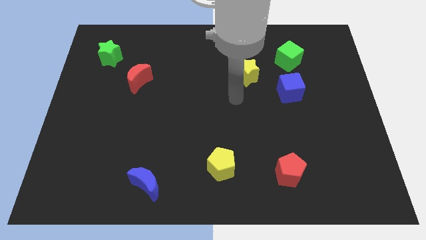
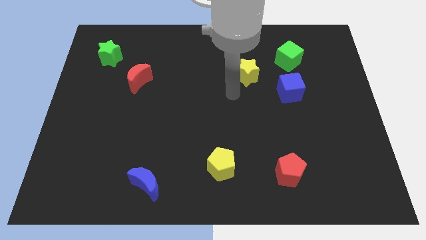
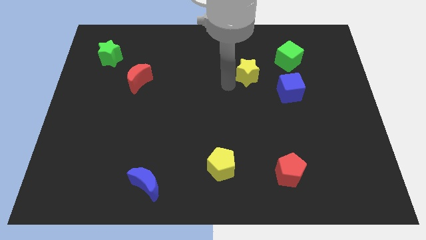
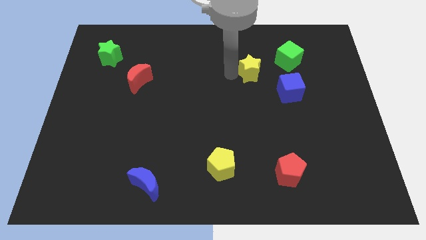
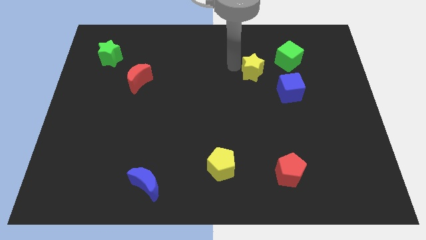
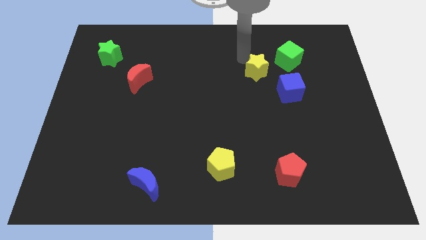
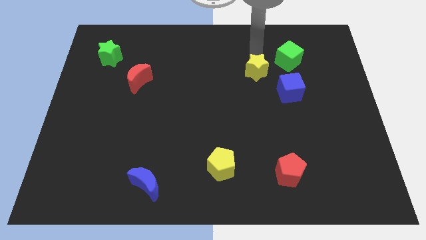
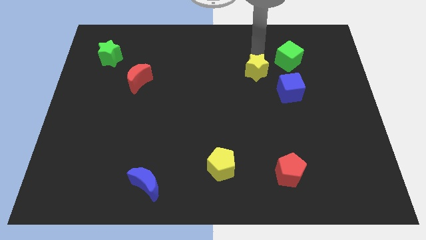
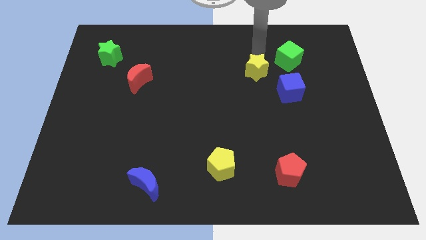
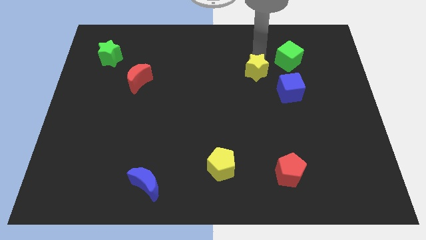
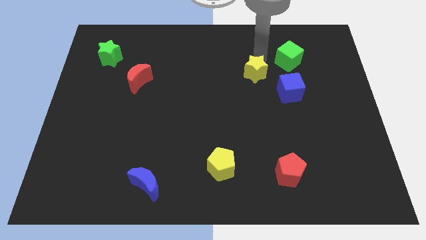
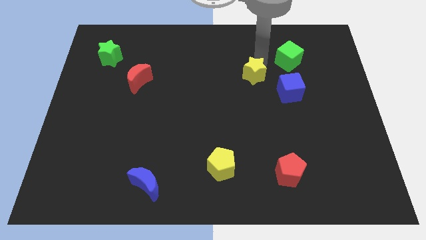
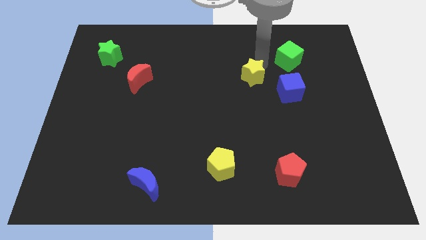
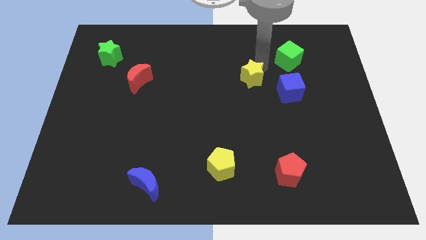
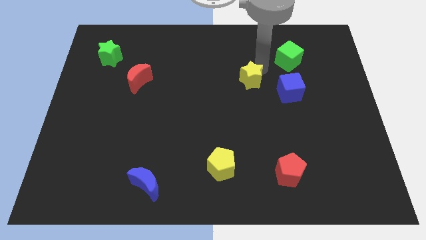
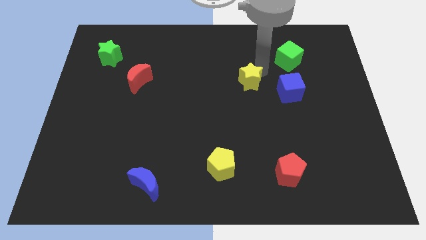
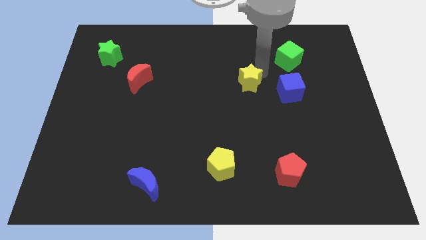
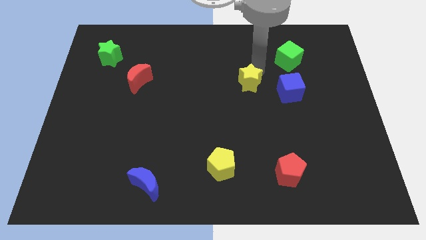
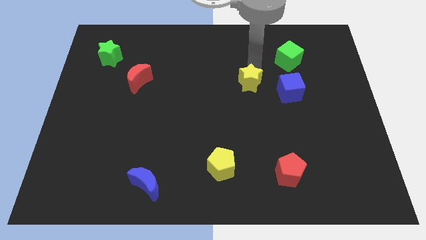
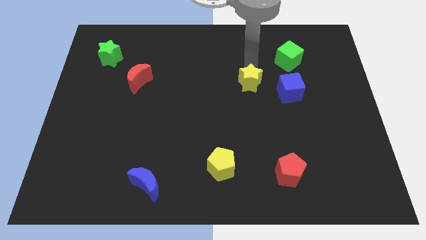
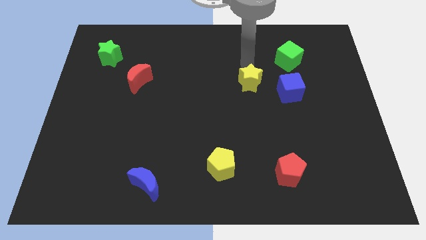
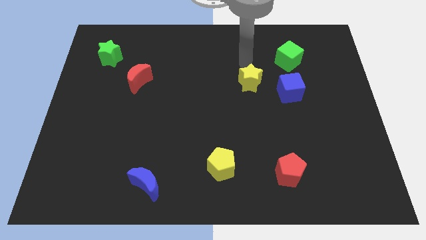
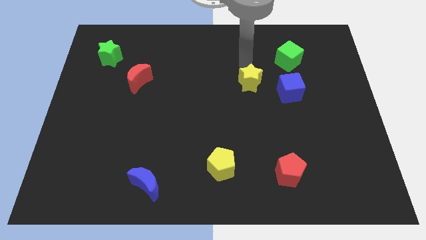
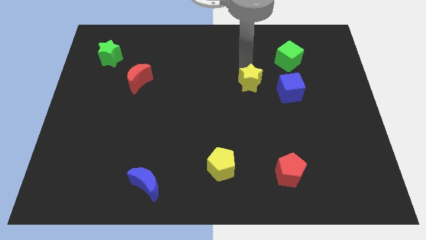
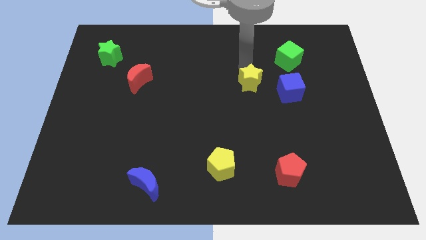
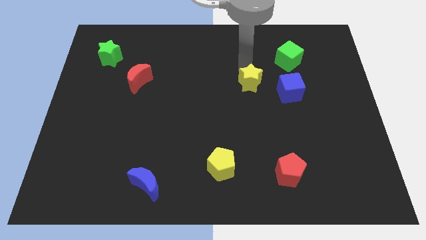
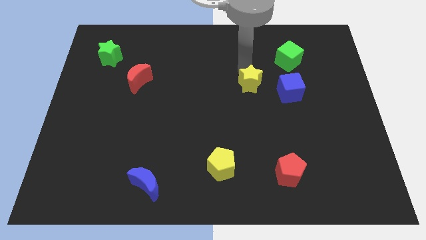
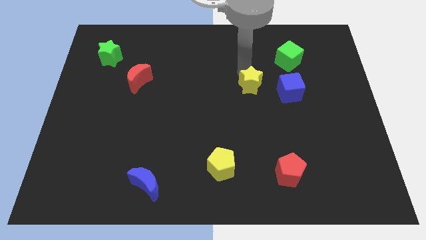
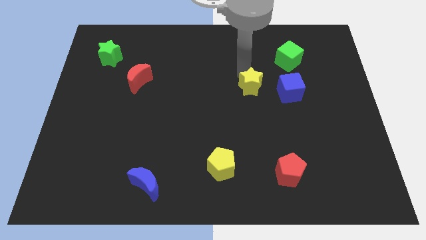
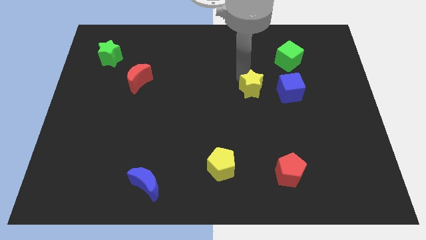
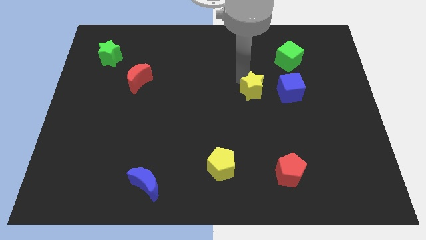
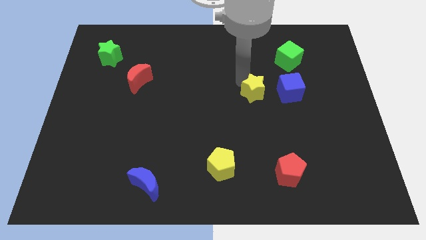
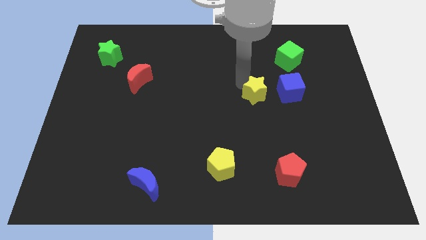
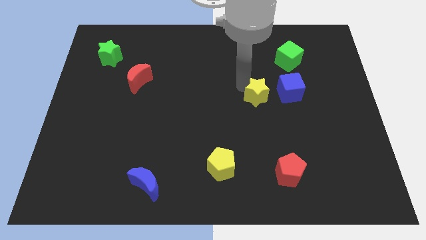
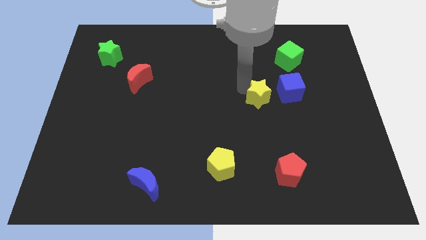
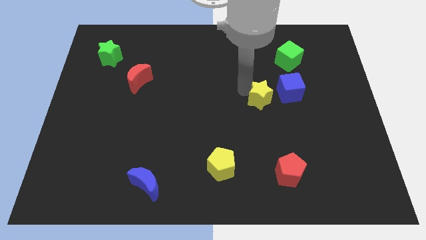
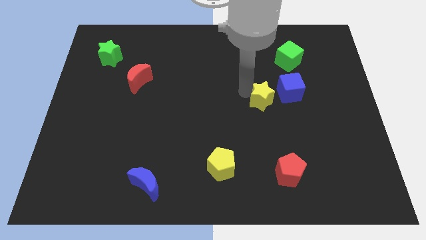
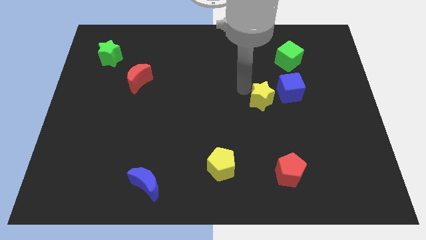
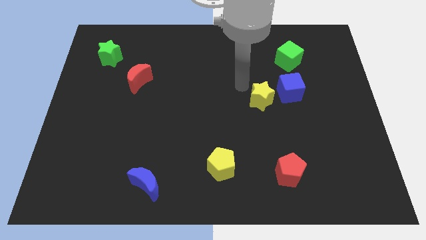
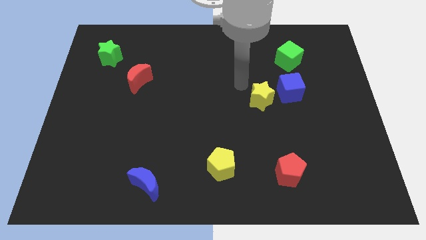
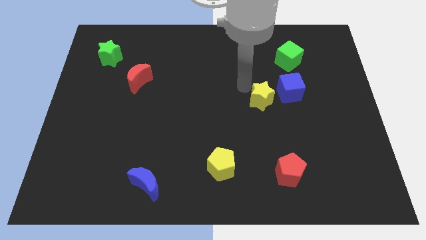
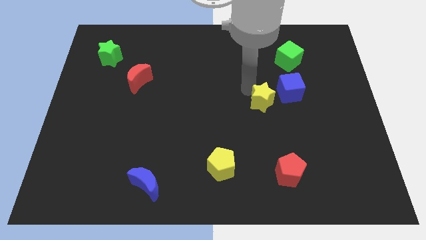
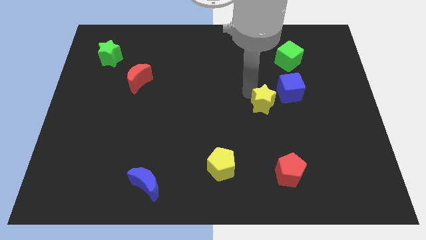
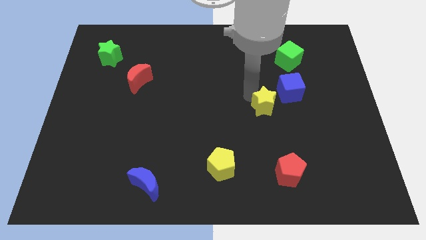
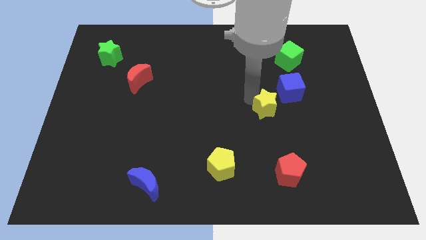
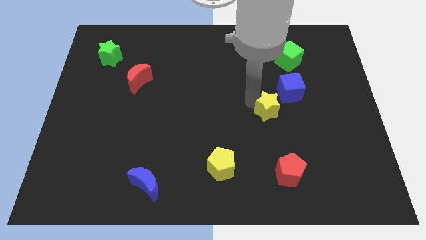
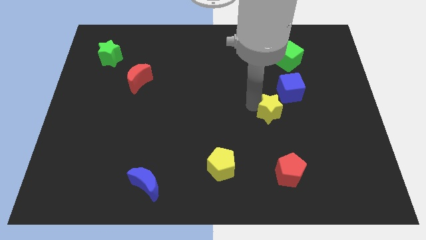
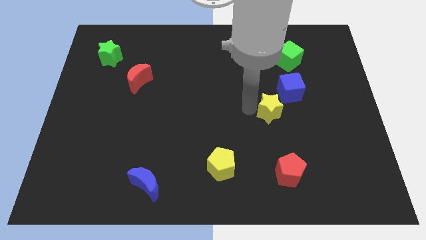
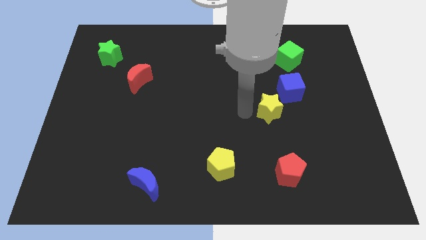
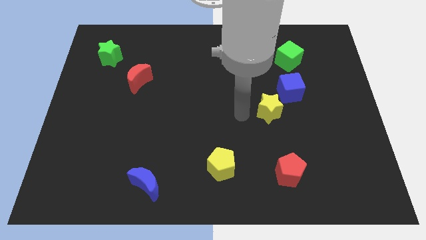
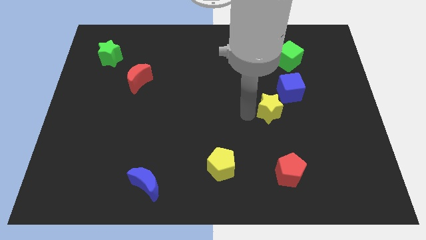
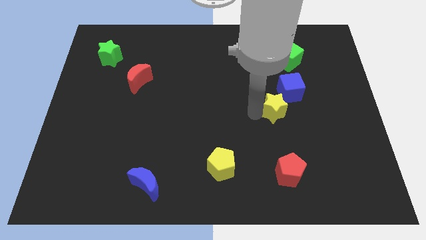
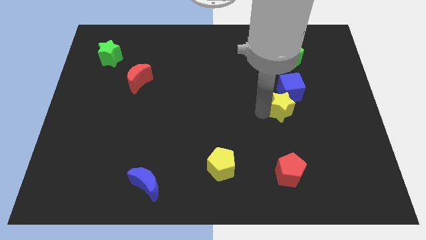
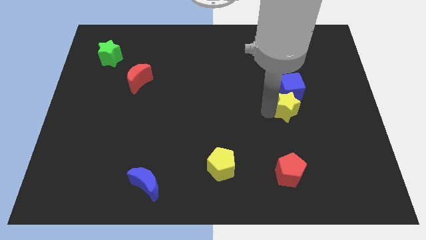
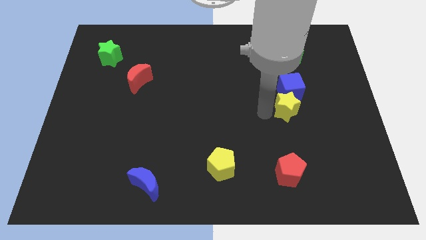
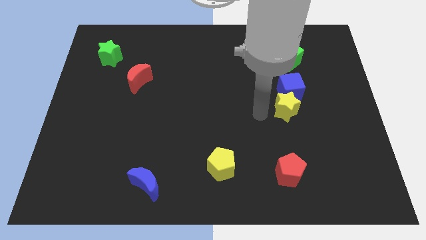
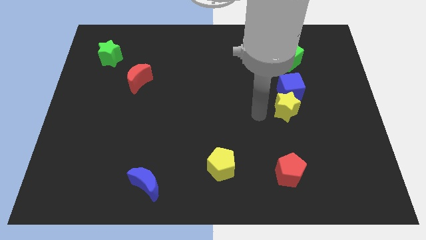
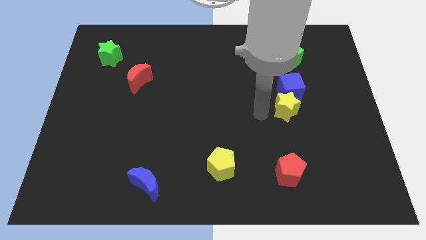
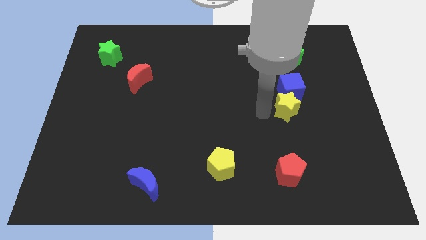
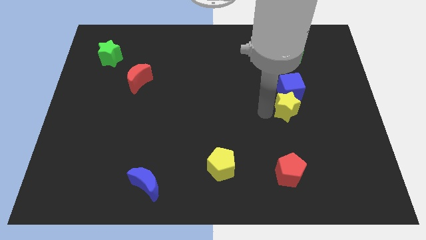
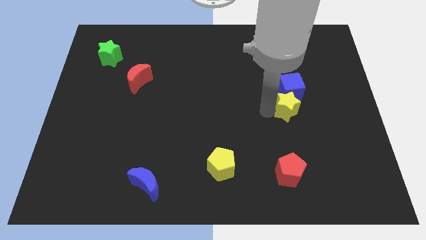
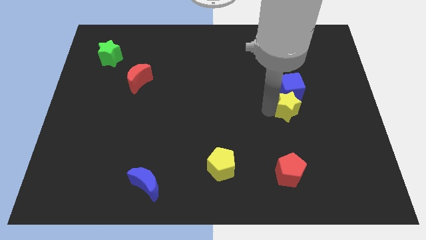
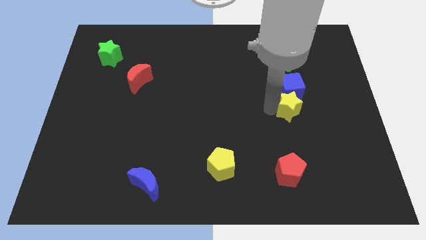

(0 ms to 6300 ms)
put the yellow star to the bottom right of the blue cube

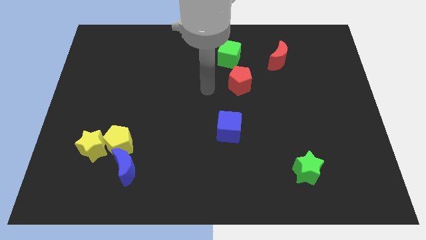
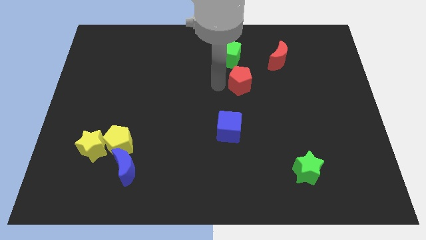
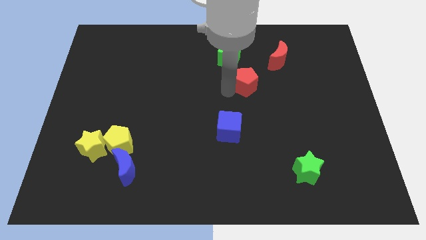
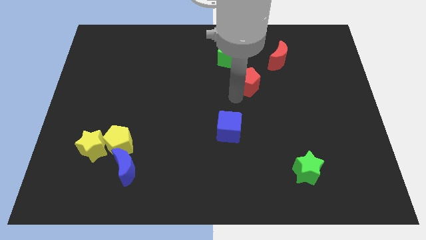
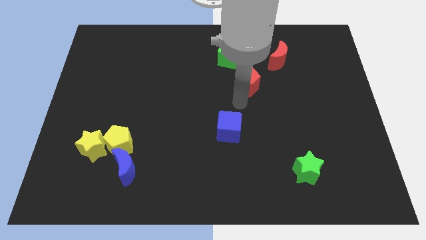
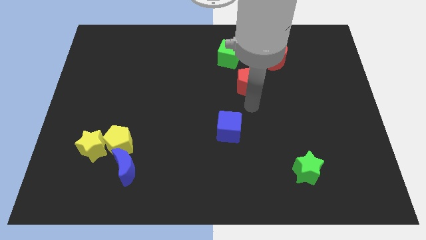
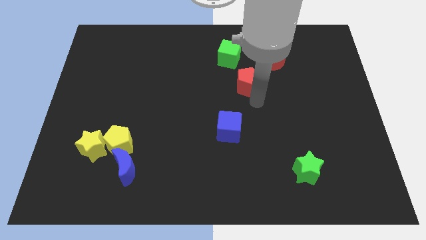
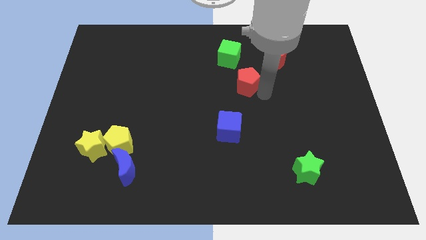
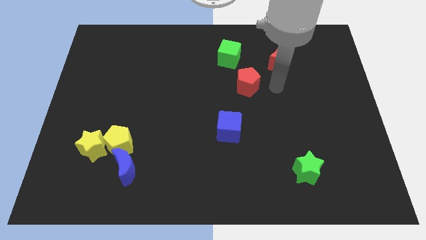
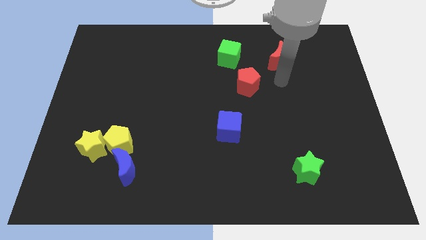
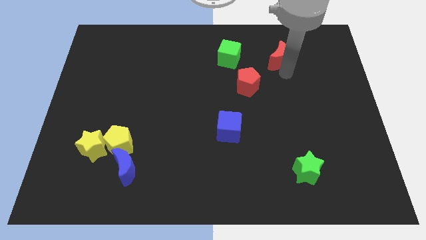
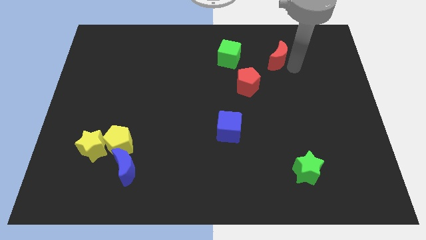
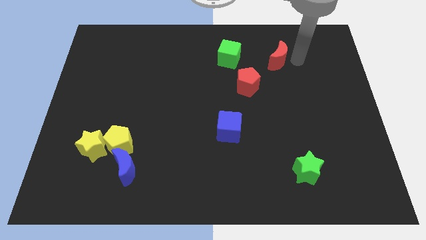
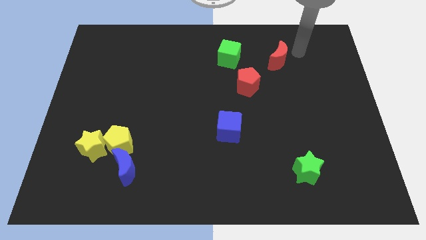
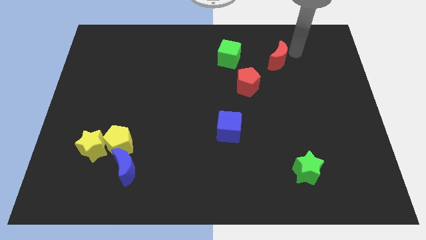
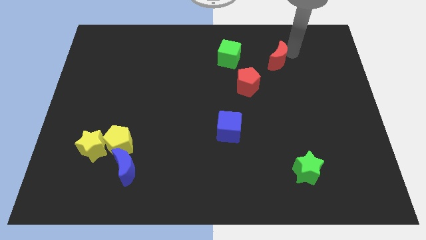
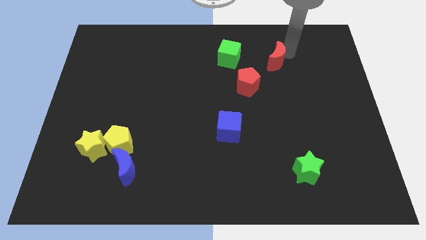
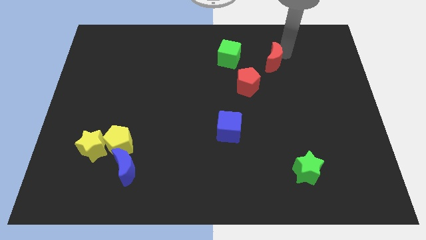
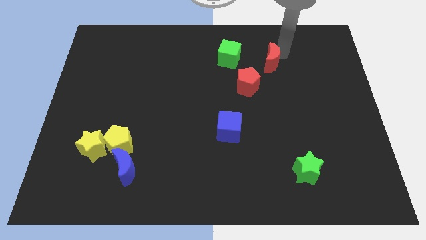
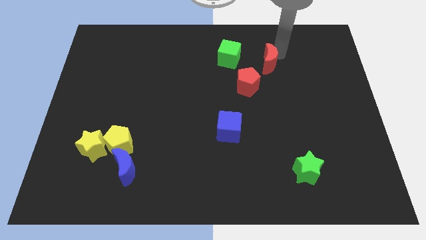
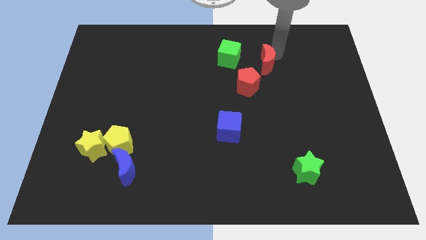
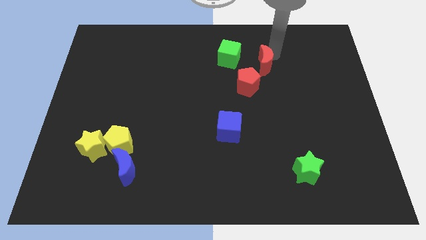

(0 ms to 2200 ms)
push the red moon diagonally down and to the right of the green cube
